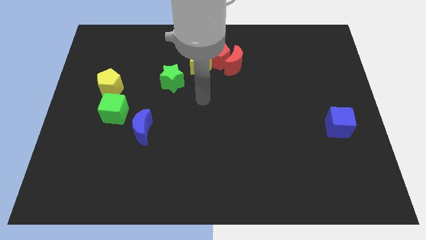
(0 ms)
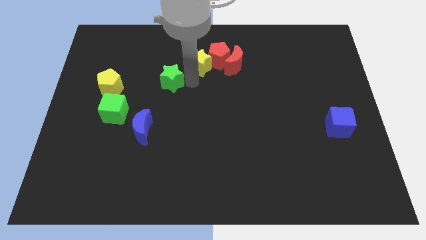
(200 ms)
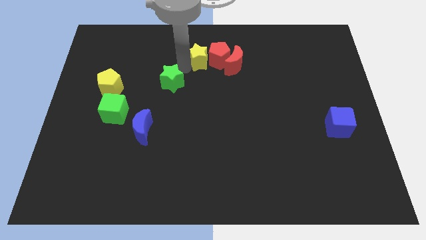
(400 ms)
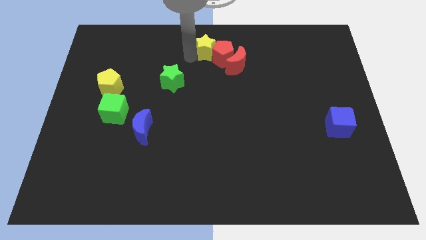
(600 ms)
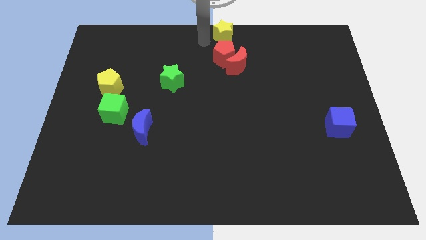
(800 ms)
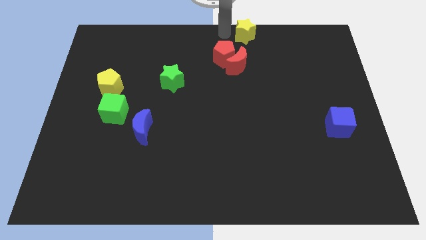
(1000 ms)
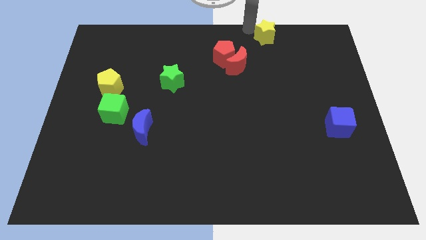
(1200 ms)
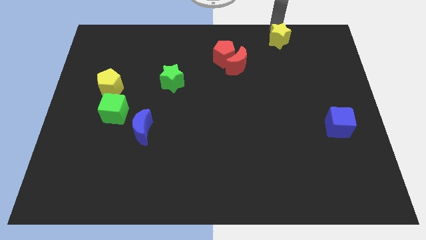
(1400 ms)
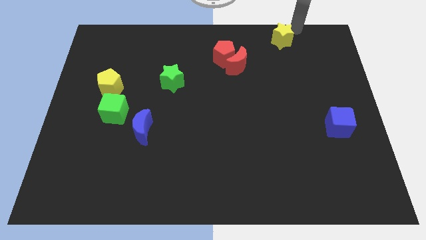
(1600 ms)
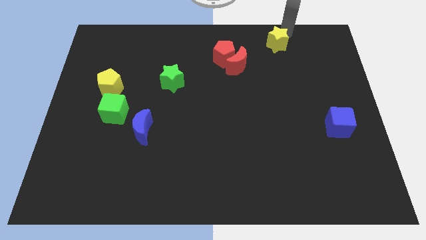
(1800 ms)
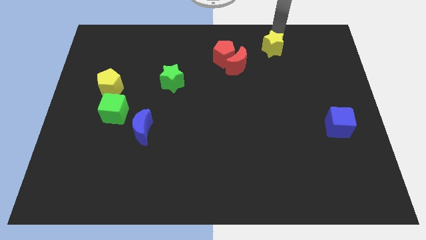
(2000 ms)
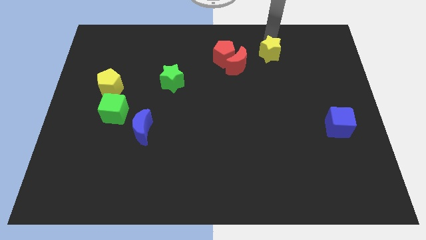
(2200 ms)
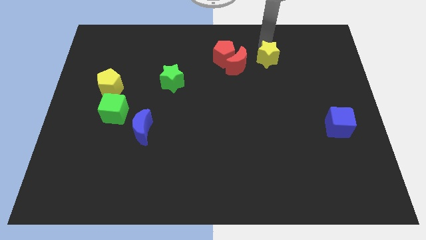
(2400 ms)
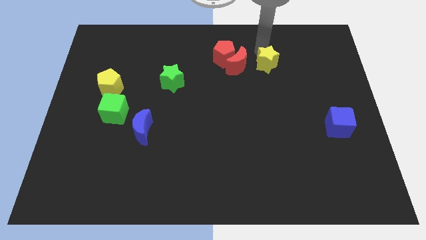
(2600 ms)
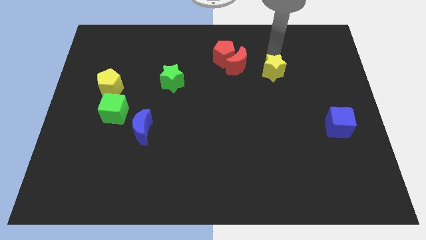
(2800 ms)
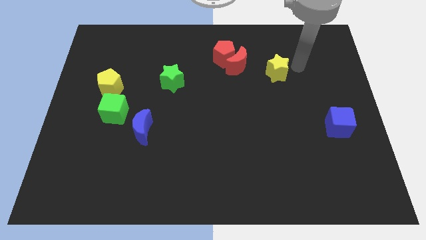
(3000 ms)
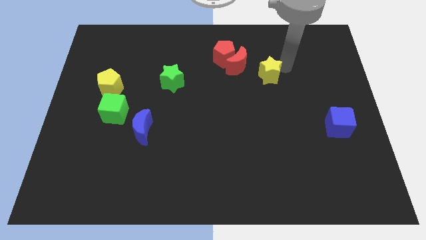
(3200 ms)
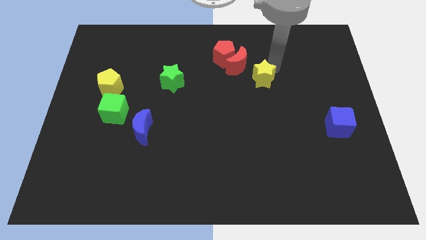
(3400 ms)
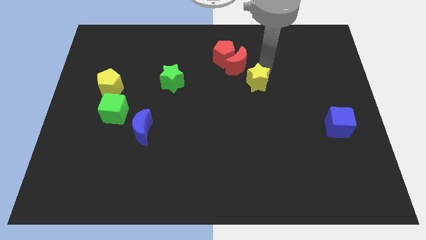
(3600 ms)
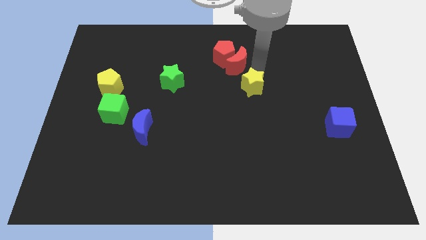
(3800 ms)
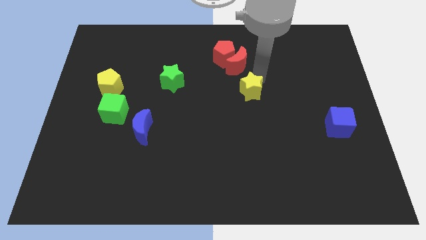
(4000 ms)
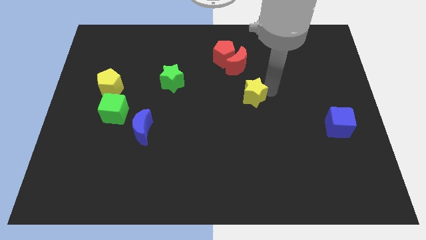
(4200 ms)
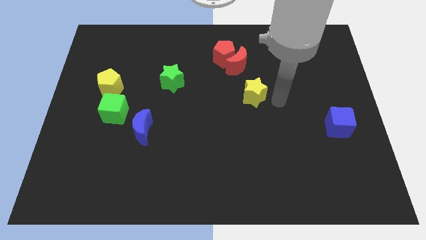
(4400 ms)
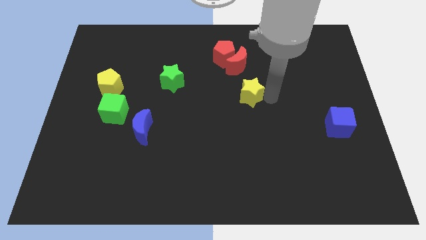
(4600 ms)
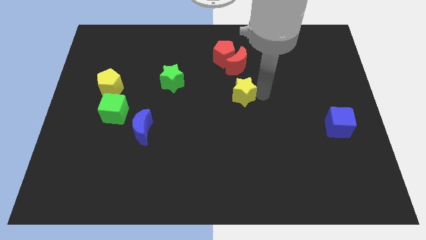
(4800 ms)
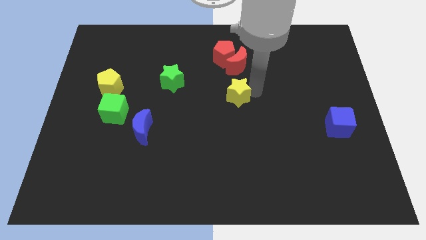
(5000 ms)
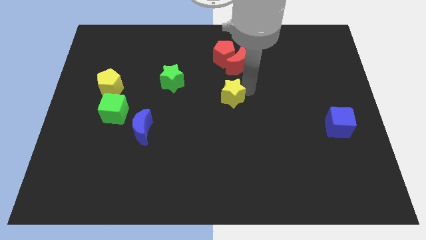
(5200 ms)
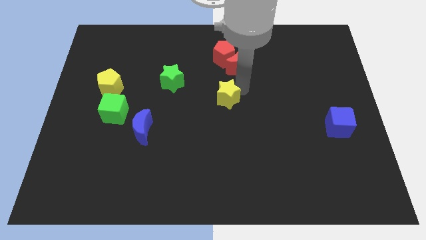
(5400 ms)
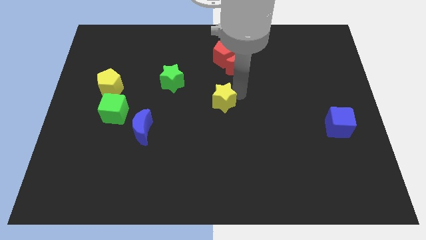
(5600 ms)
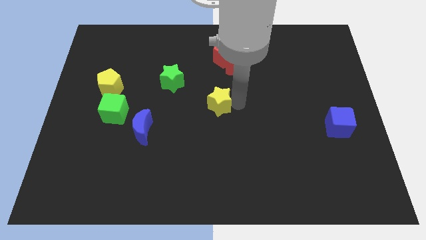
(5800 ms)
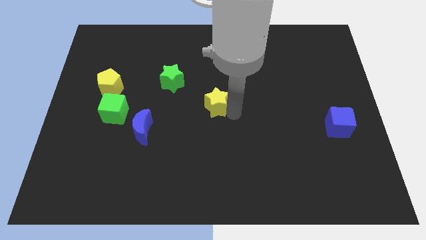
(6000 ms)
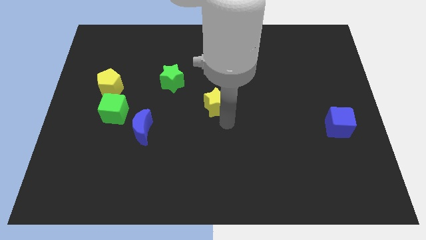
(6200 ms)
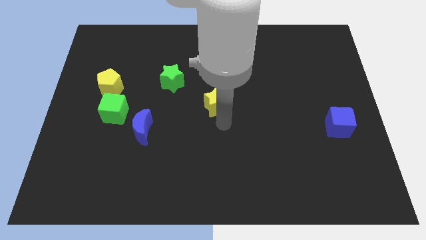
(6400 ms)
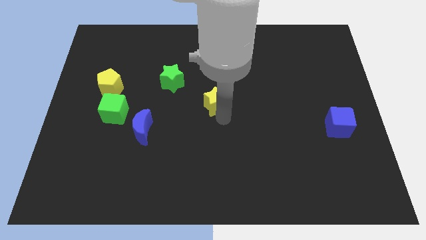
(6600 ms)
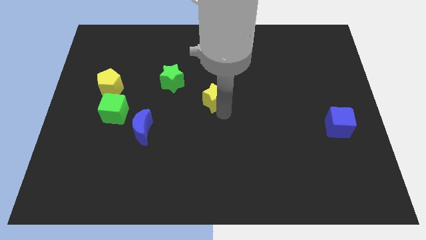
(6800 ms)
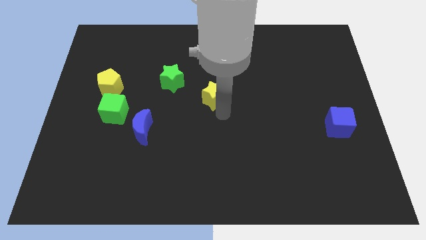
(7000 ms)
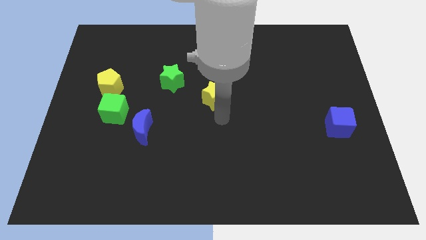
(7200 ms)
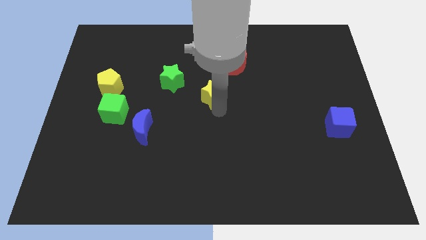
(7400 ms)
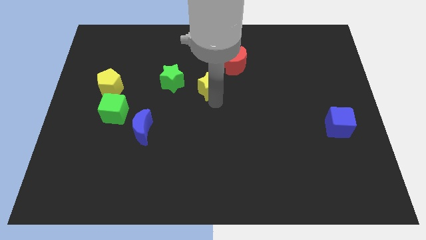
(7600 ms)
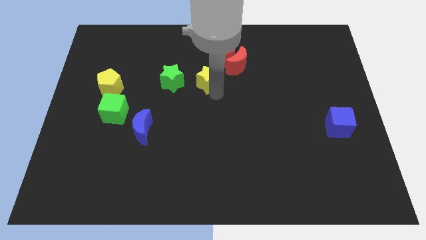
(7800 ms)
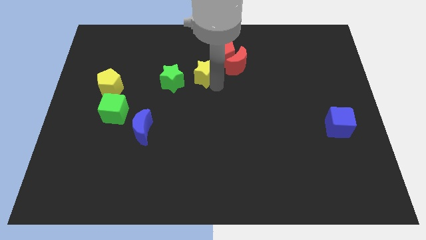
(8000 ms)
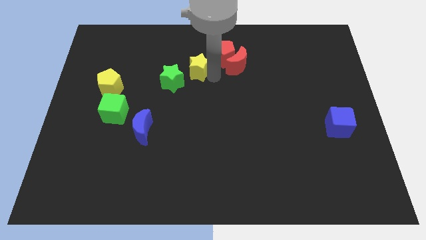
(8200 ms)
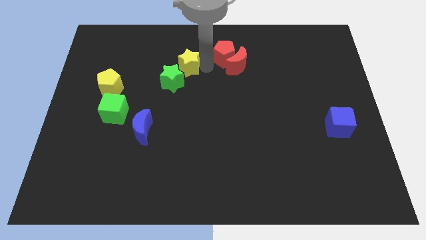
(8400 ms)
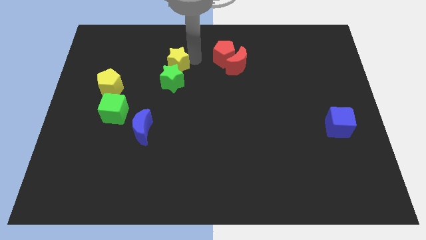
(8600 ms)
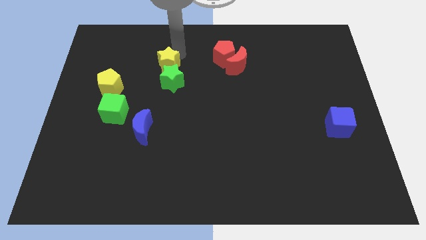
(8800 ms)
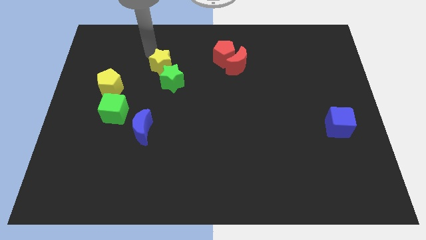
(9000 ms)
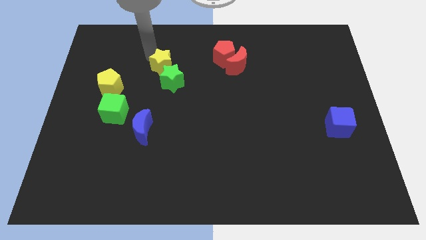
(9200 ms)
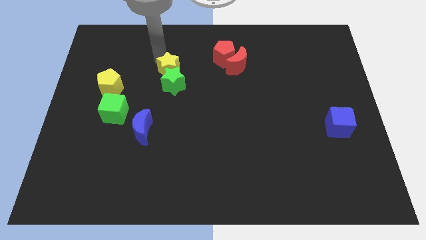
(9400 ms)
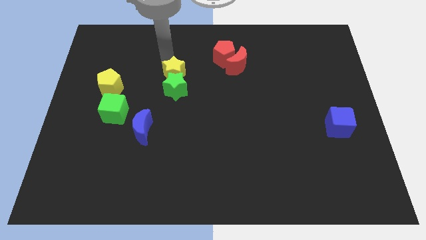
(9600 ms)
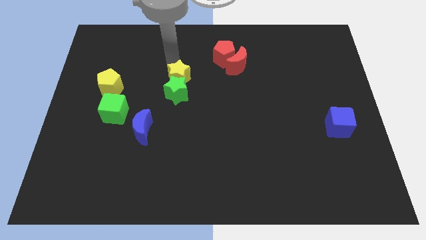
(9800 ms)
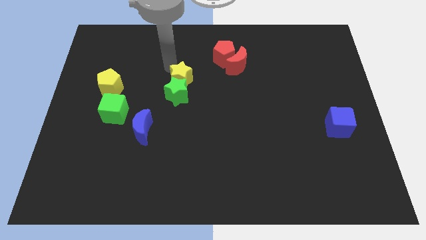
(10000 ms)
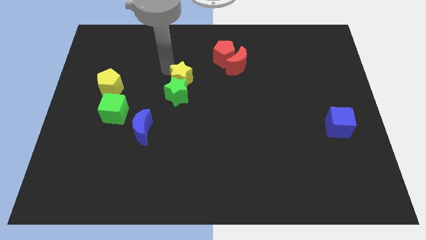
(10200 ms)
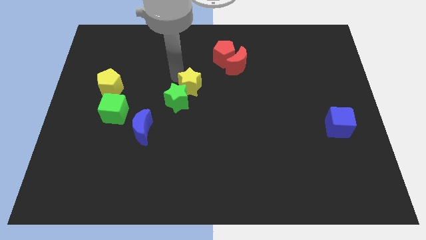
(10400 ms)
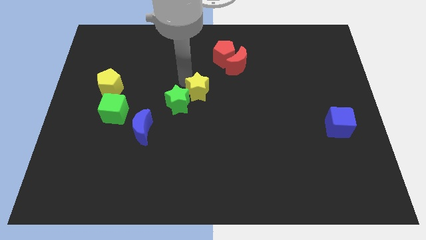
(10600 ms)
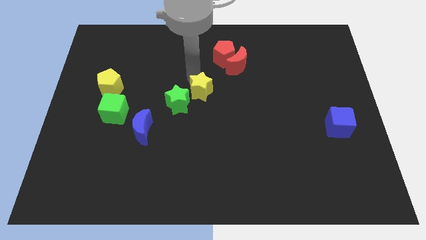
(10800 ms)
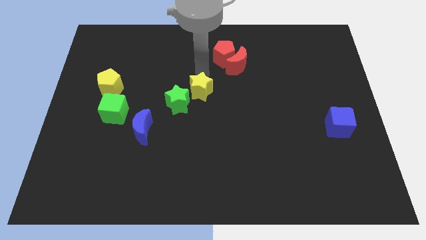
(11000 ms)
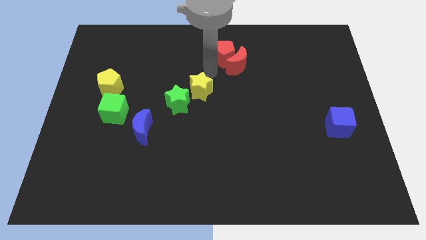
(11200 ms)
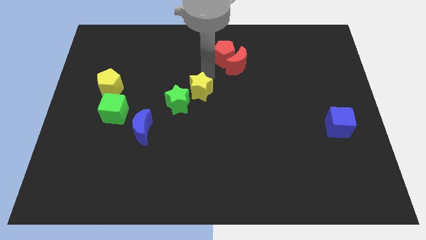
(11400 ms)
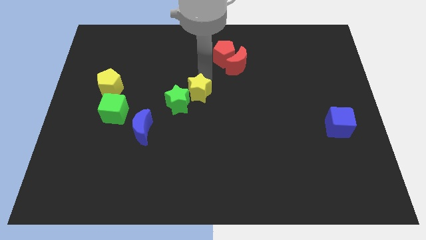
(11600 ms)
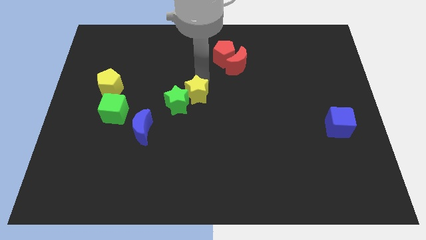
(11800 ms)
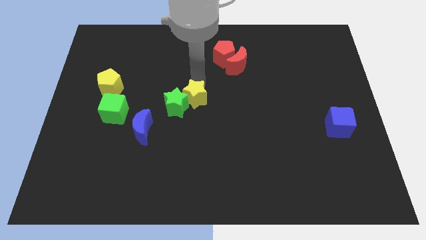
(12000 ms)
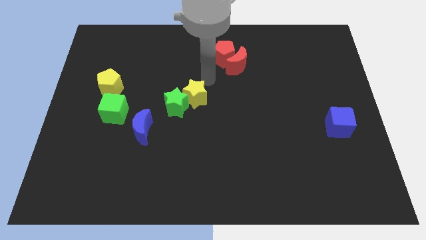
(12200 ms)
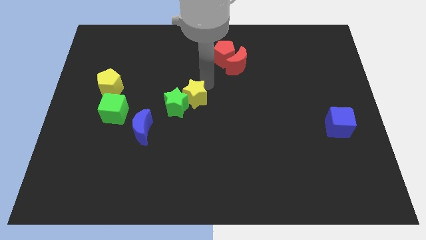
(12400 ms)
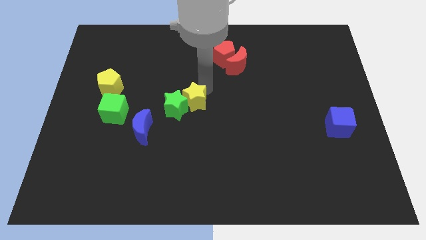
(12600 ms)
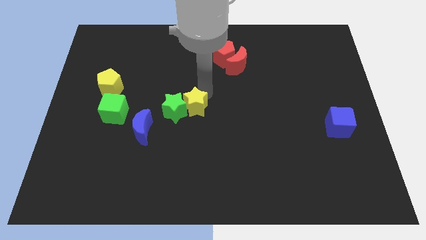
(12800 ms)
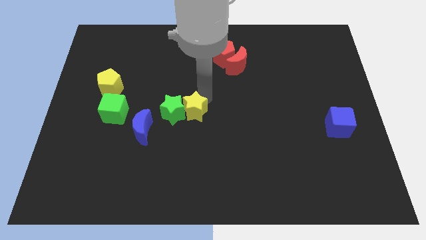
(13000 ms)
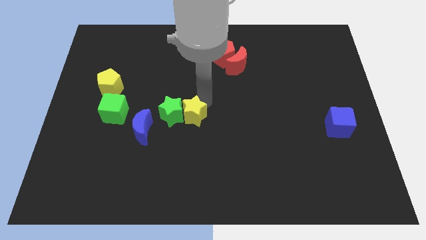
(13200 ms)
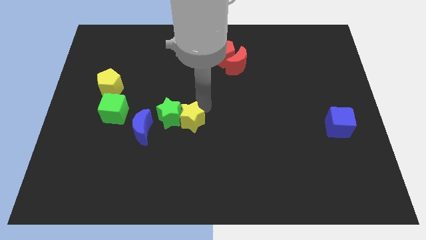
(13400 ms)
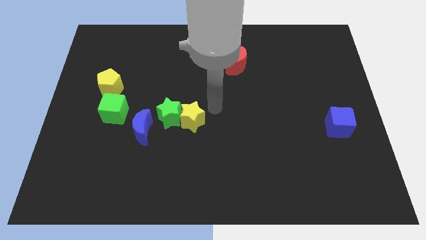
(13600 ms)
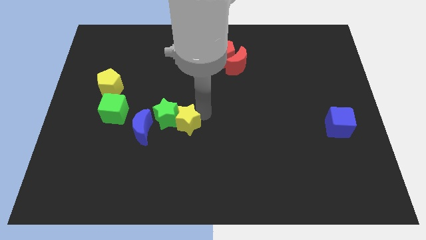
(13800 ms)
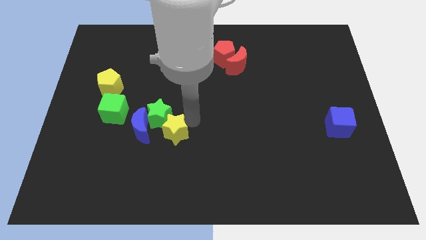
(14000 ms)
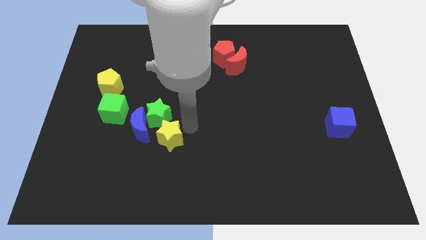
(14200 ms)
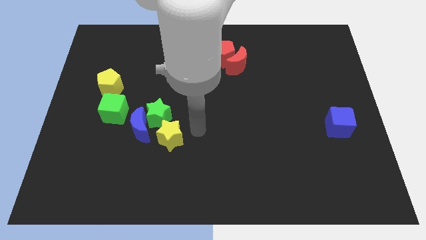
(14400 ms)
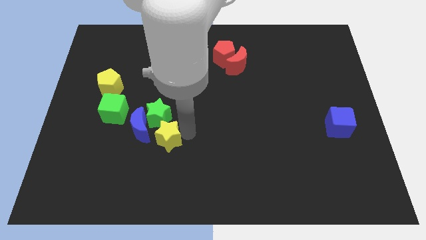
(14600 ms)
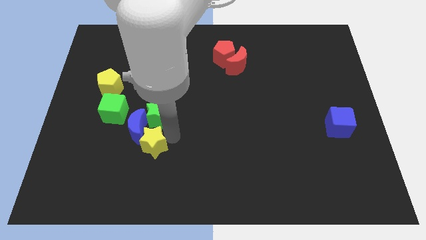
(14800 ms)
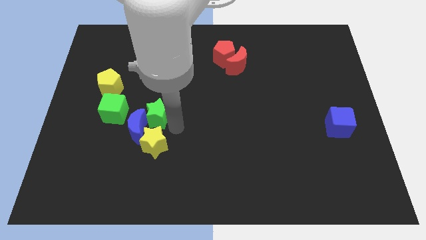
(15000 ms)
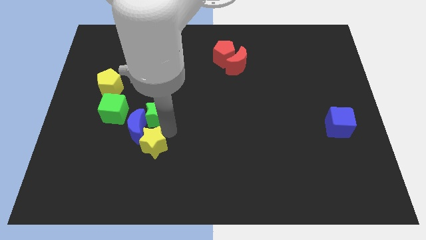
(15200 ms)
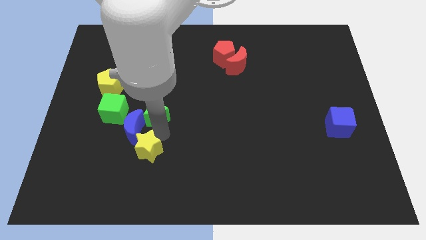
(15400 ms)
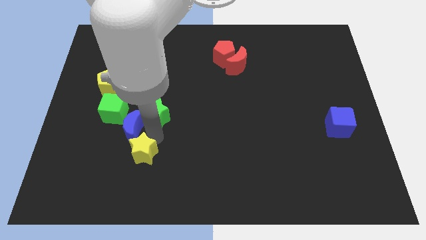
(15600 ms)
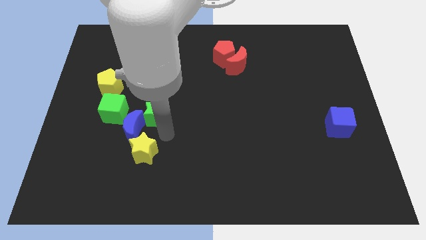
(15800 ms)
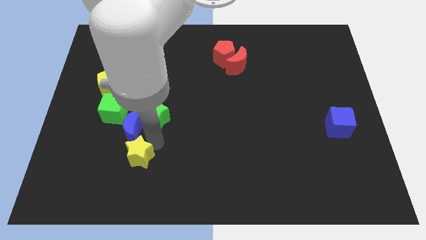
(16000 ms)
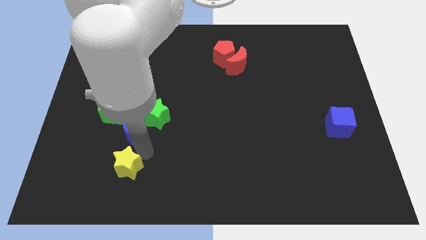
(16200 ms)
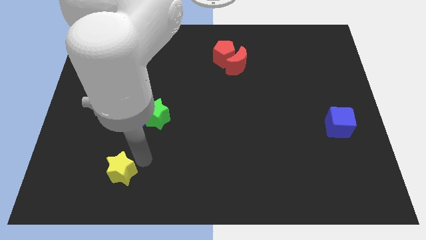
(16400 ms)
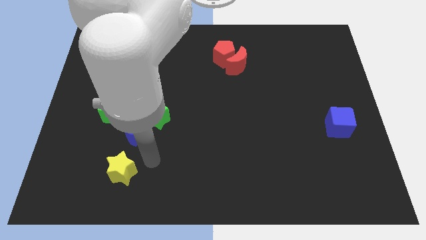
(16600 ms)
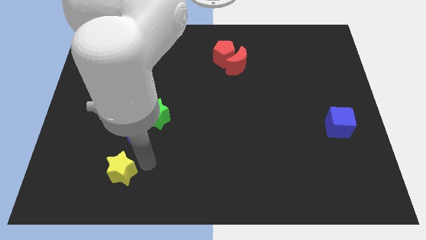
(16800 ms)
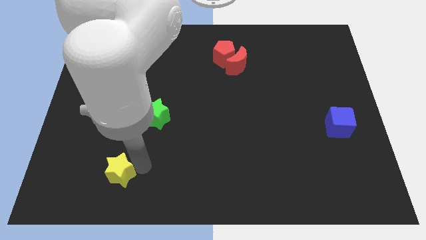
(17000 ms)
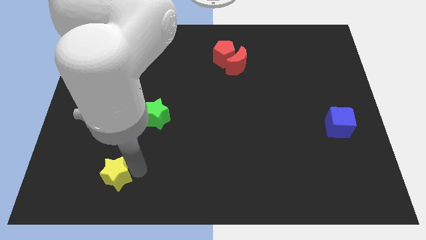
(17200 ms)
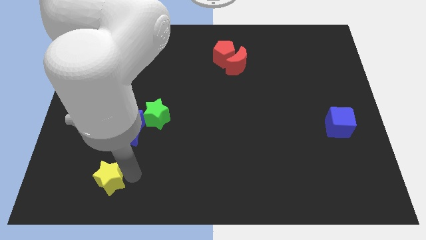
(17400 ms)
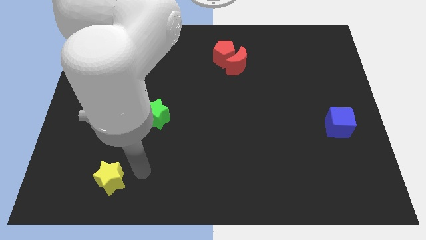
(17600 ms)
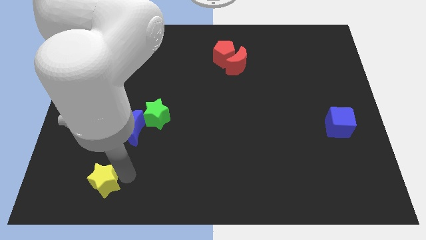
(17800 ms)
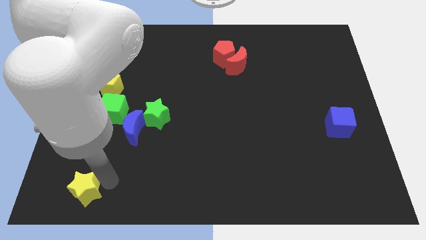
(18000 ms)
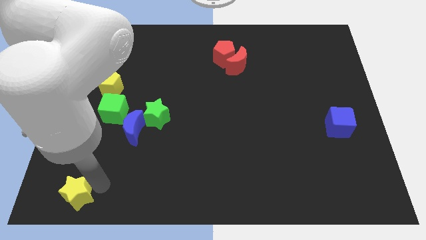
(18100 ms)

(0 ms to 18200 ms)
push the yellow star to the lower left corner
